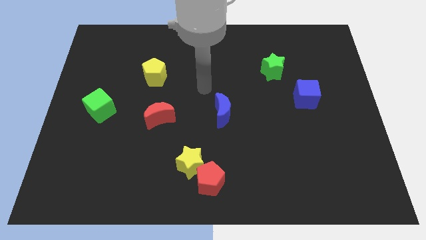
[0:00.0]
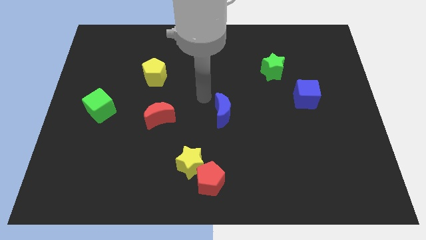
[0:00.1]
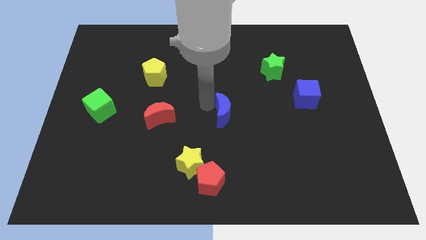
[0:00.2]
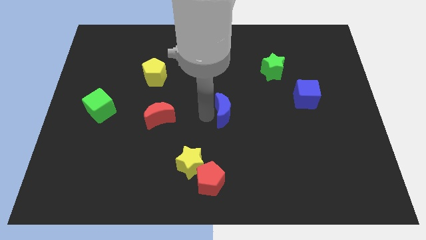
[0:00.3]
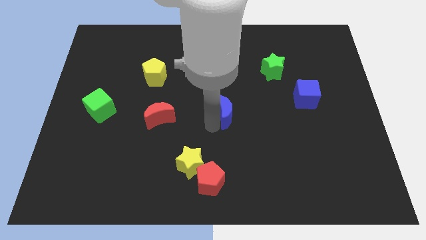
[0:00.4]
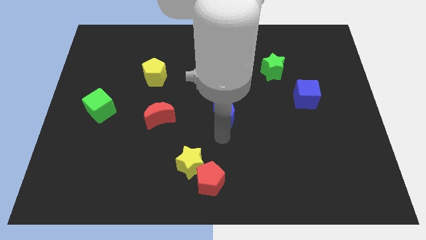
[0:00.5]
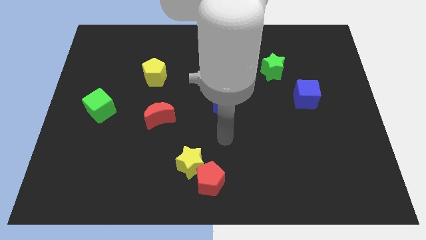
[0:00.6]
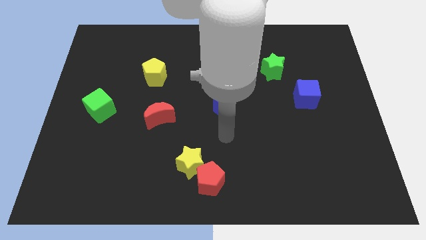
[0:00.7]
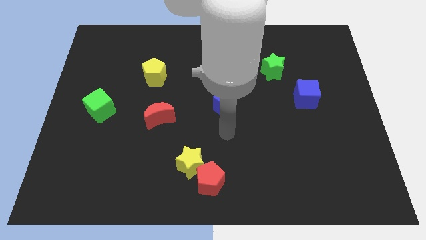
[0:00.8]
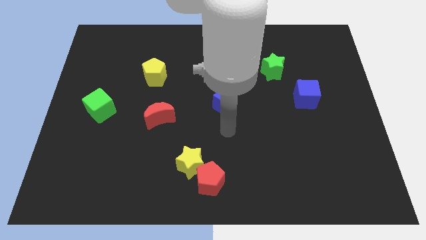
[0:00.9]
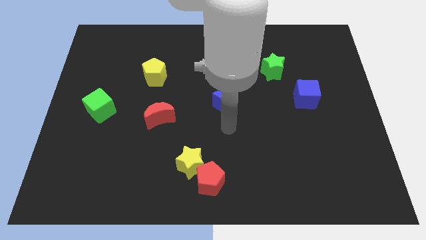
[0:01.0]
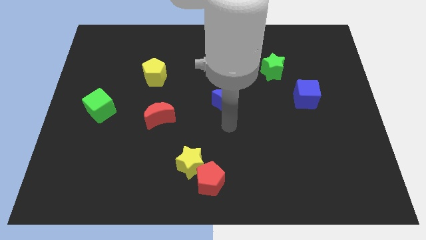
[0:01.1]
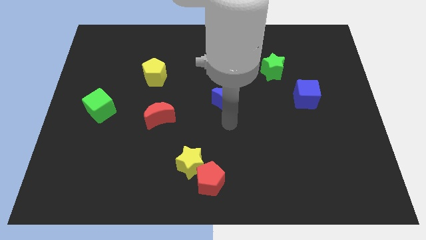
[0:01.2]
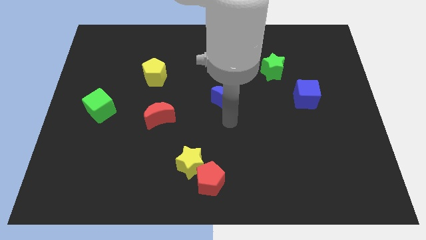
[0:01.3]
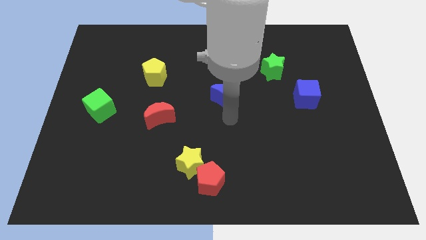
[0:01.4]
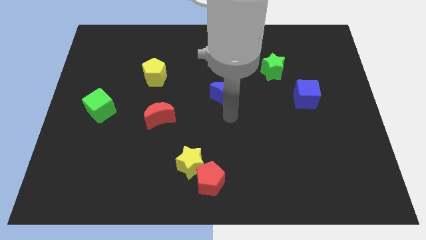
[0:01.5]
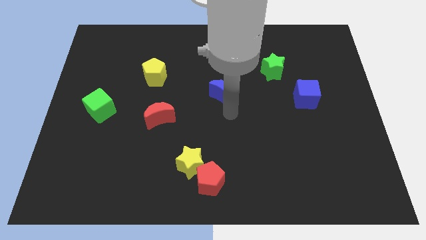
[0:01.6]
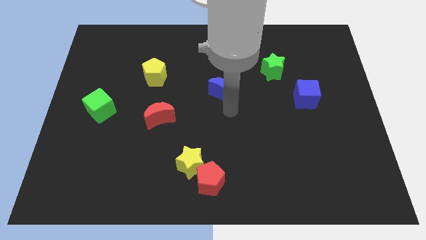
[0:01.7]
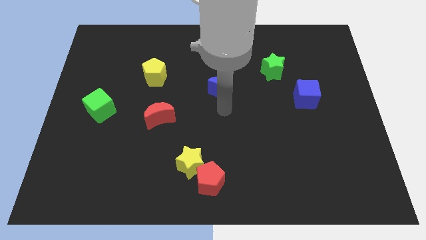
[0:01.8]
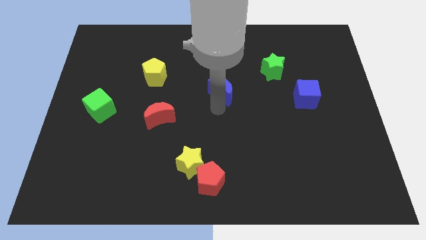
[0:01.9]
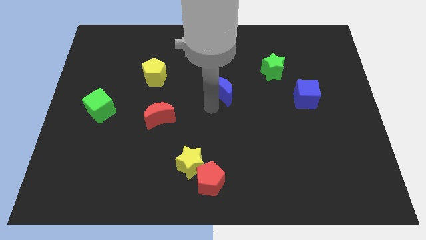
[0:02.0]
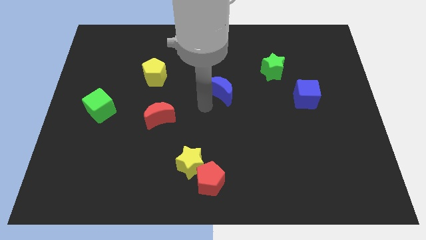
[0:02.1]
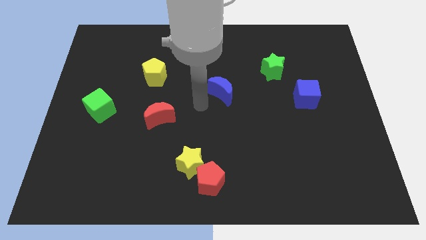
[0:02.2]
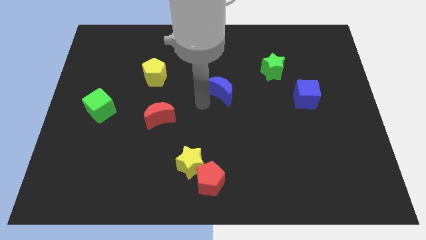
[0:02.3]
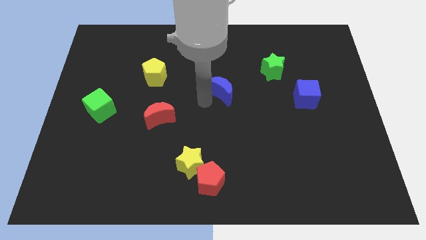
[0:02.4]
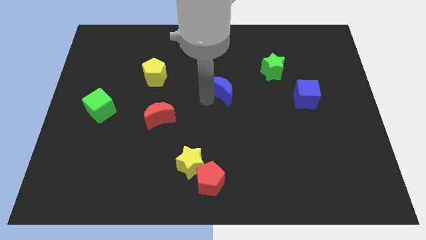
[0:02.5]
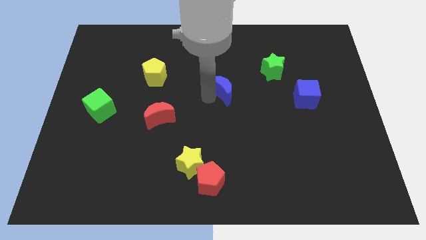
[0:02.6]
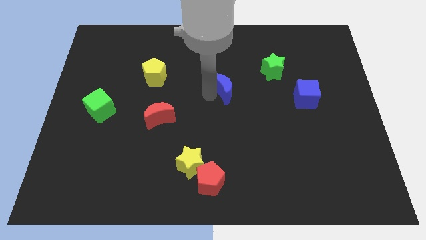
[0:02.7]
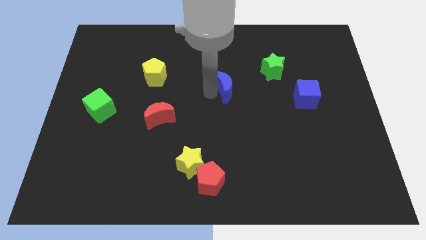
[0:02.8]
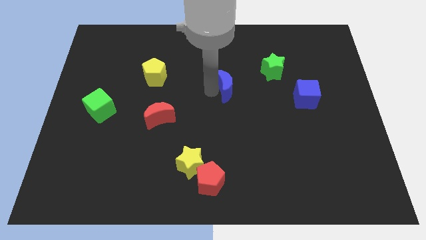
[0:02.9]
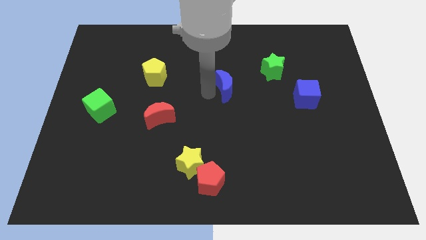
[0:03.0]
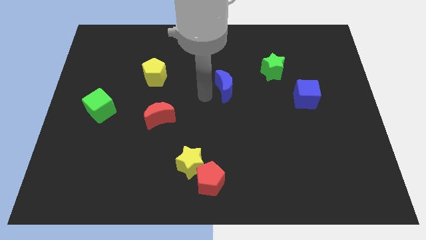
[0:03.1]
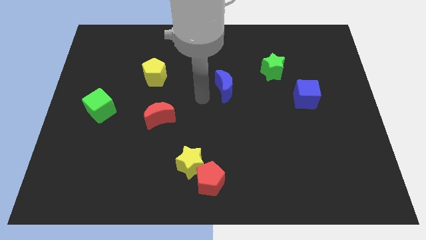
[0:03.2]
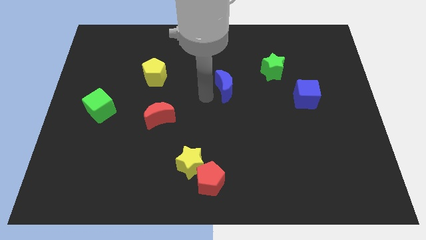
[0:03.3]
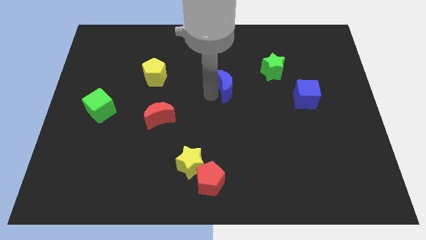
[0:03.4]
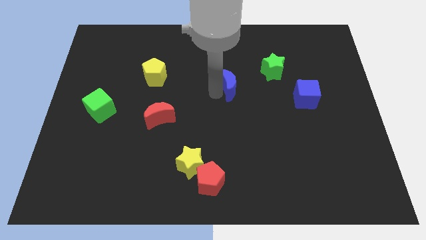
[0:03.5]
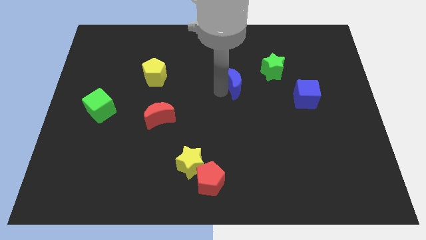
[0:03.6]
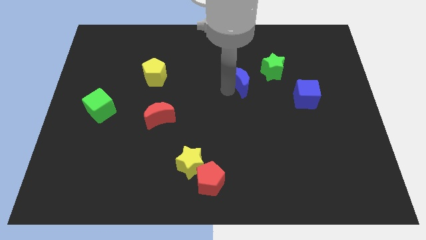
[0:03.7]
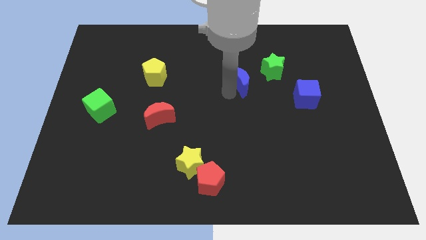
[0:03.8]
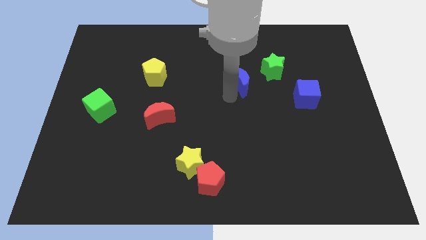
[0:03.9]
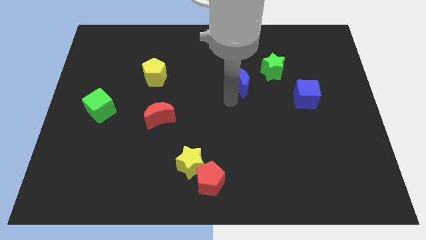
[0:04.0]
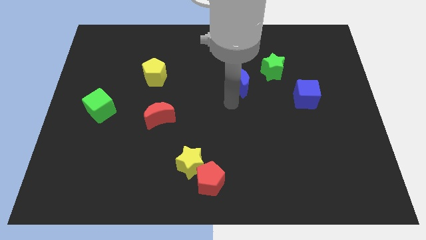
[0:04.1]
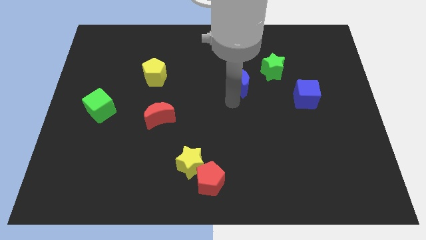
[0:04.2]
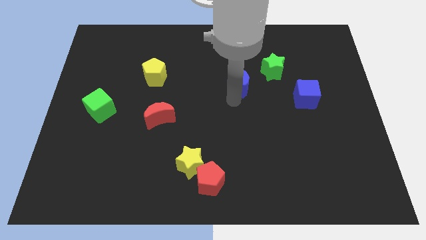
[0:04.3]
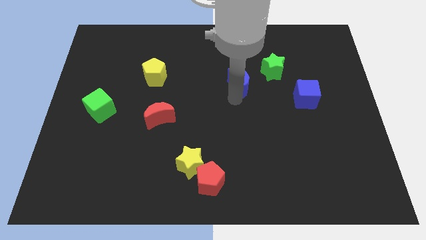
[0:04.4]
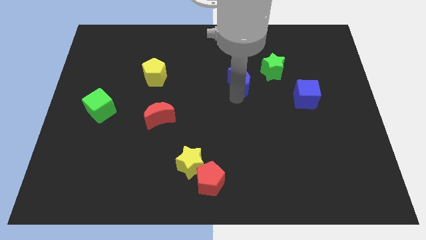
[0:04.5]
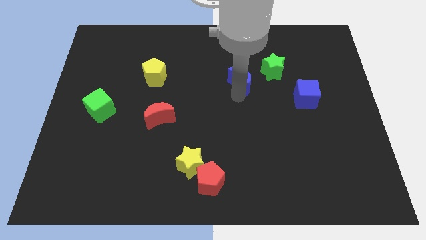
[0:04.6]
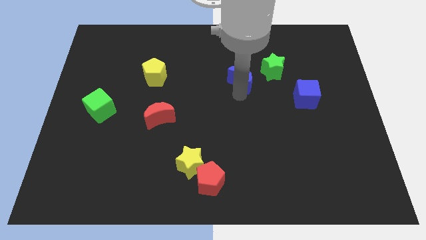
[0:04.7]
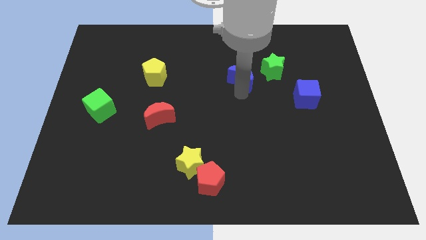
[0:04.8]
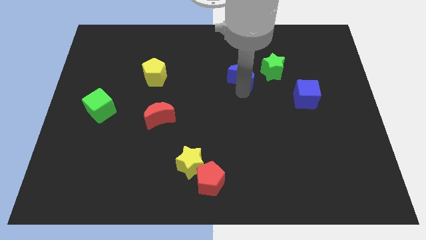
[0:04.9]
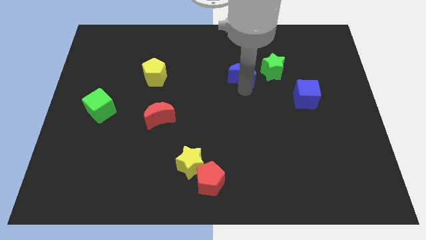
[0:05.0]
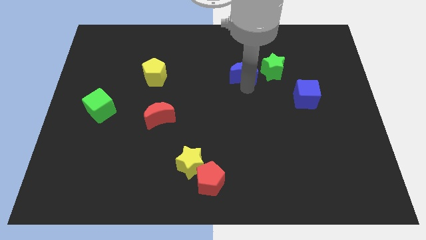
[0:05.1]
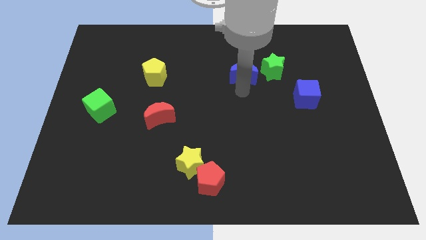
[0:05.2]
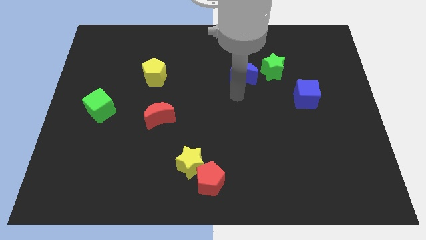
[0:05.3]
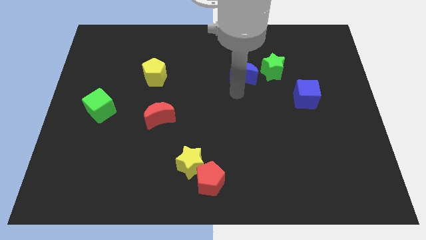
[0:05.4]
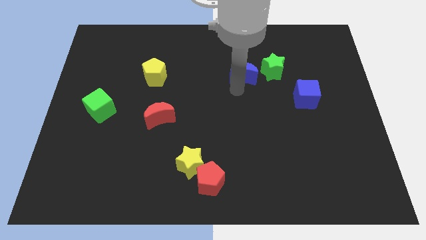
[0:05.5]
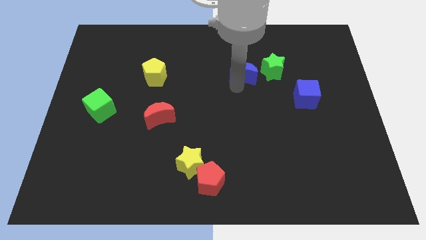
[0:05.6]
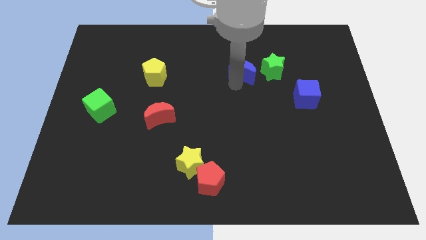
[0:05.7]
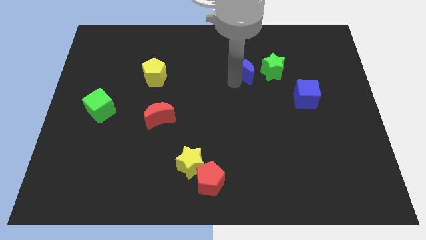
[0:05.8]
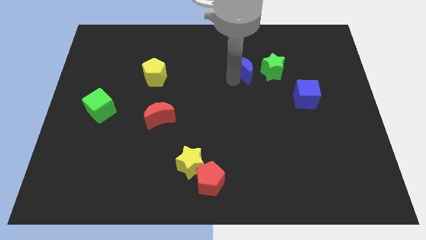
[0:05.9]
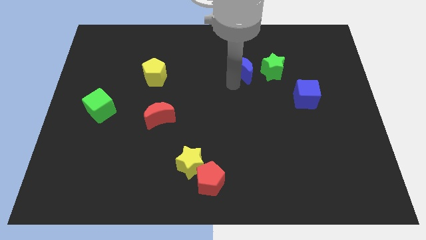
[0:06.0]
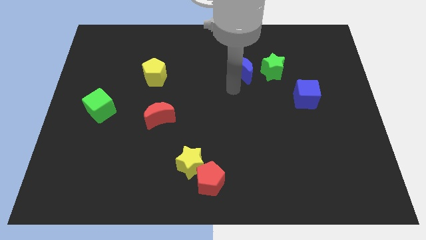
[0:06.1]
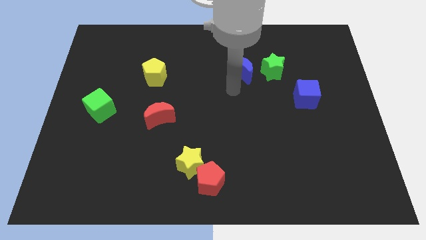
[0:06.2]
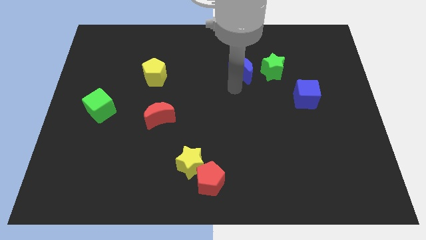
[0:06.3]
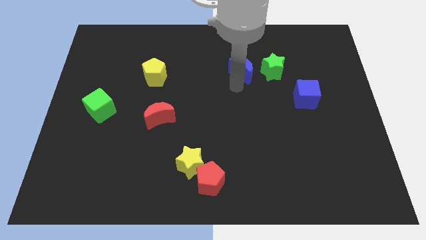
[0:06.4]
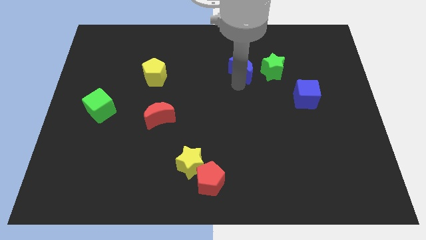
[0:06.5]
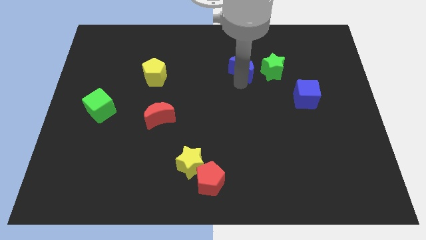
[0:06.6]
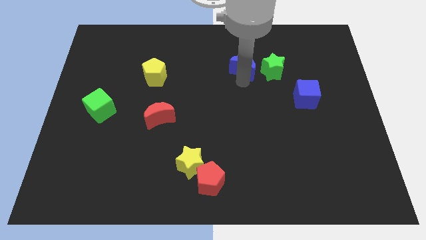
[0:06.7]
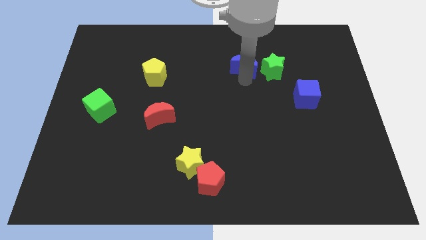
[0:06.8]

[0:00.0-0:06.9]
put the blue moon to the top left side of the green star

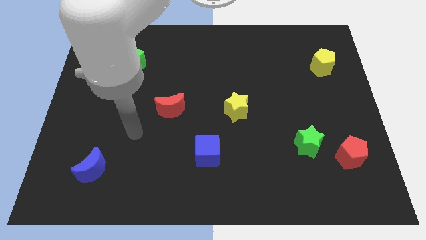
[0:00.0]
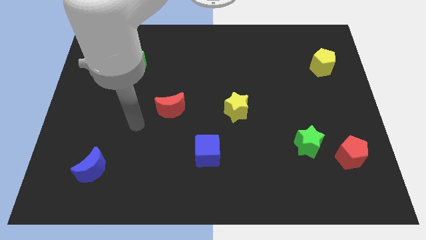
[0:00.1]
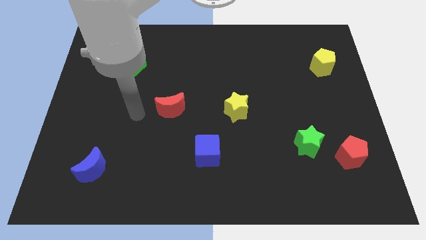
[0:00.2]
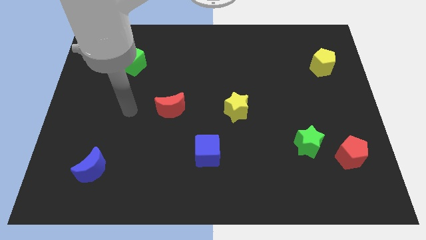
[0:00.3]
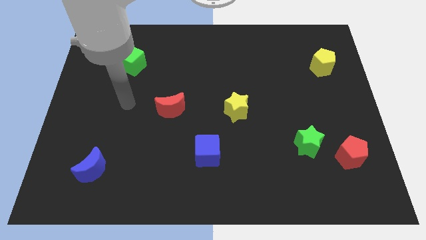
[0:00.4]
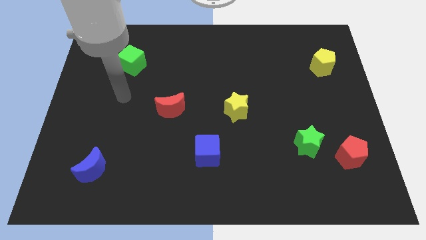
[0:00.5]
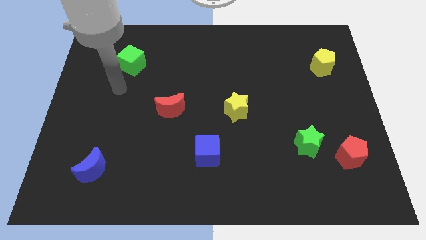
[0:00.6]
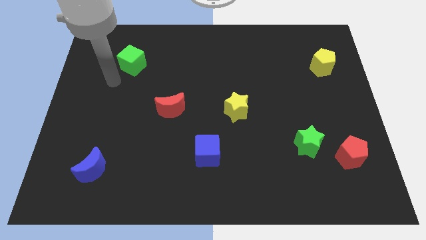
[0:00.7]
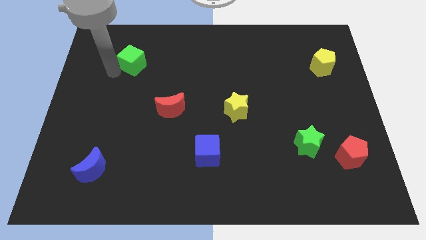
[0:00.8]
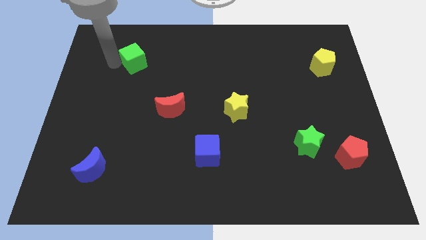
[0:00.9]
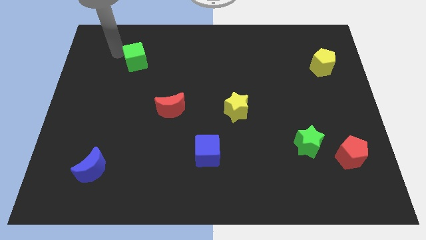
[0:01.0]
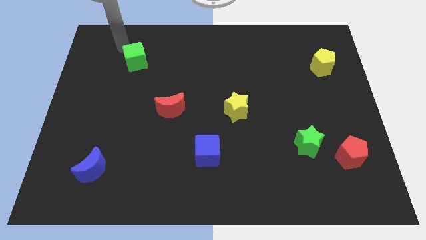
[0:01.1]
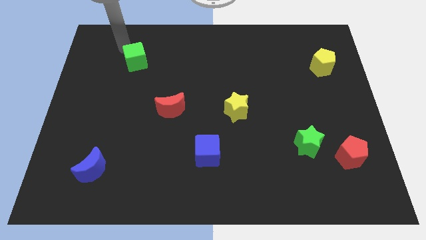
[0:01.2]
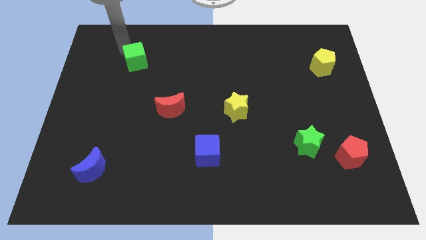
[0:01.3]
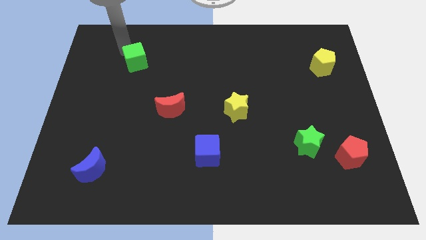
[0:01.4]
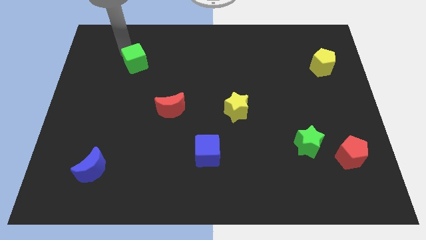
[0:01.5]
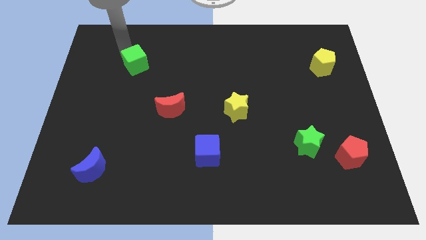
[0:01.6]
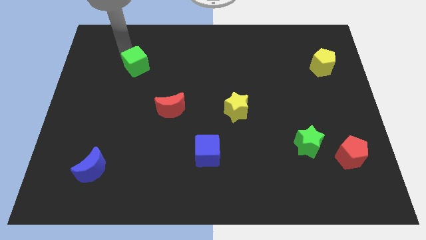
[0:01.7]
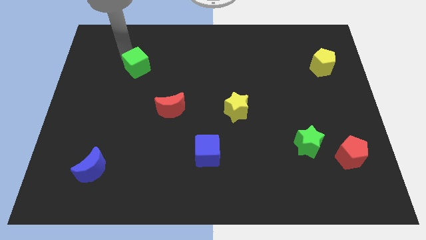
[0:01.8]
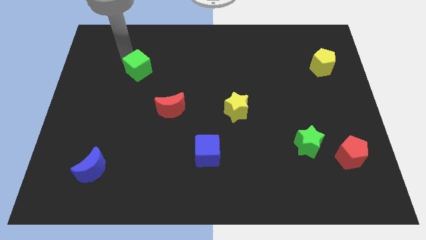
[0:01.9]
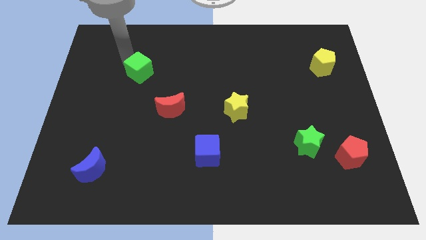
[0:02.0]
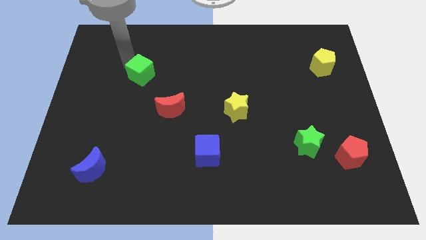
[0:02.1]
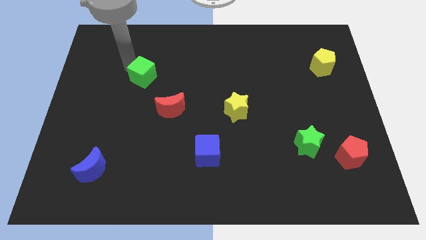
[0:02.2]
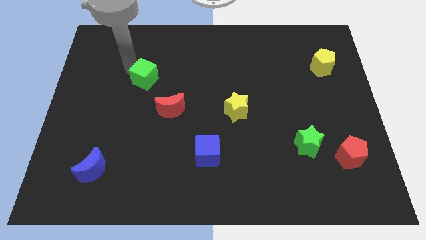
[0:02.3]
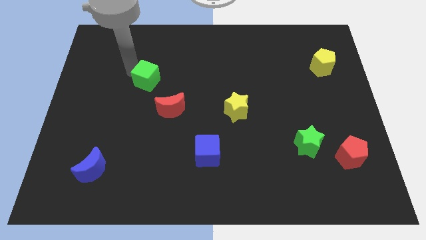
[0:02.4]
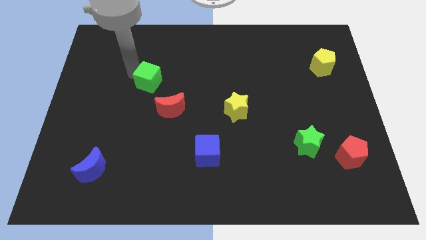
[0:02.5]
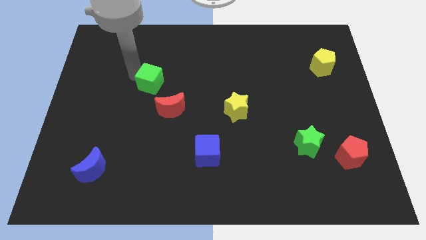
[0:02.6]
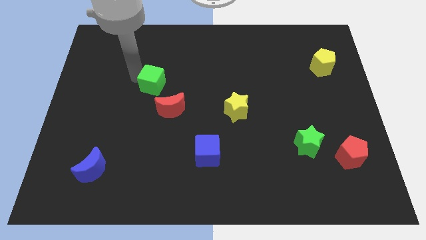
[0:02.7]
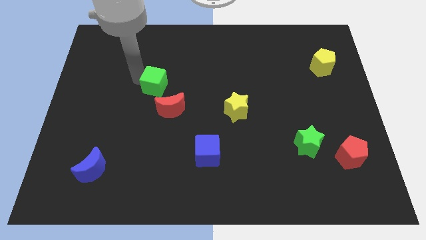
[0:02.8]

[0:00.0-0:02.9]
put the green cube to the top side of the red moon
